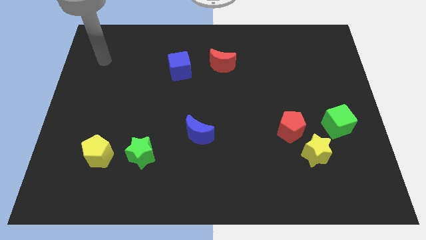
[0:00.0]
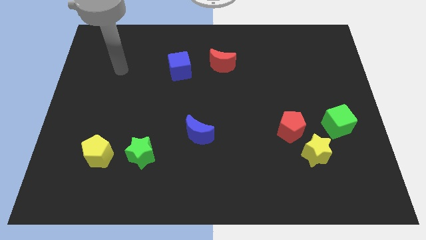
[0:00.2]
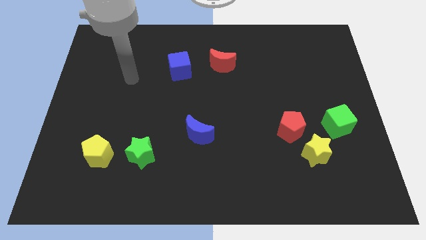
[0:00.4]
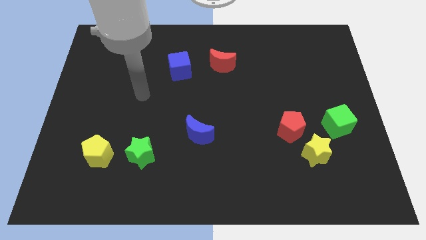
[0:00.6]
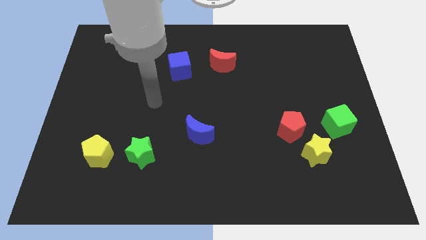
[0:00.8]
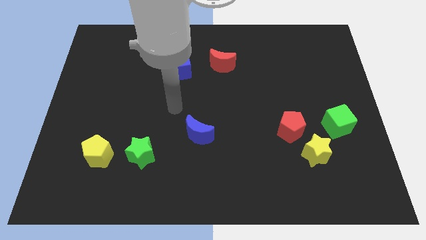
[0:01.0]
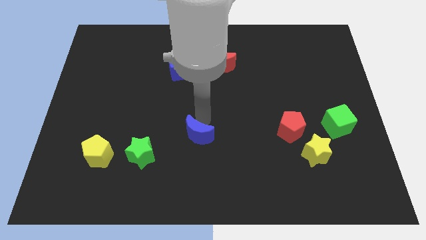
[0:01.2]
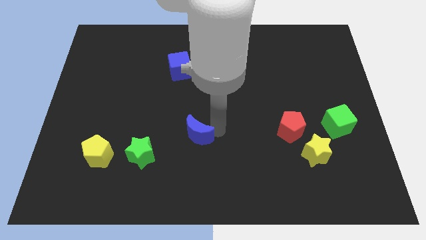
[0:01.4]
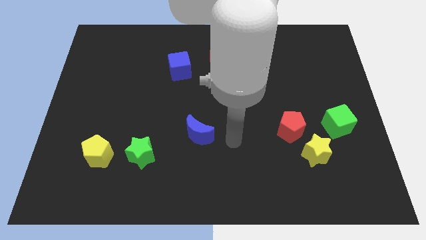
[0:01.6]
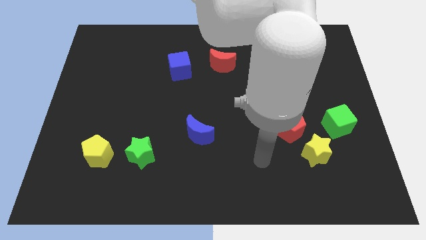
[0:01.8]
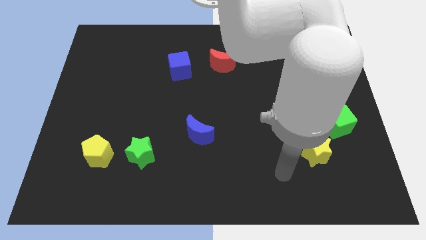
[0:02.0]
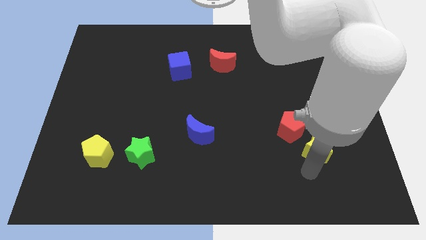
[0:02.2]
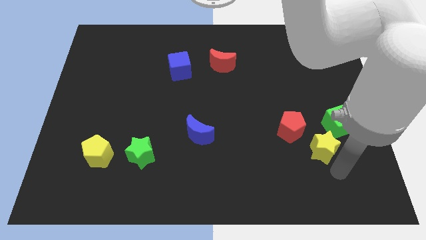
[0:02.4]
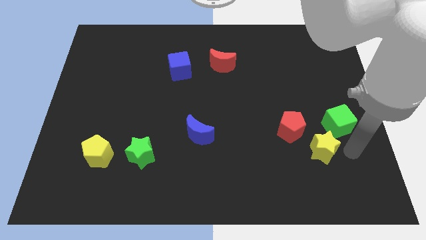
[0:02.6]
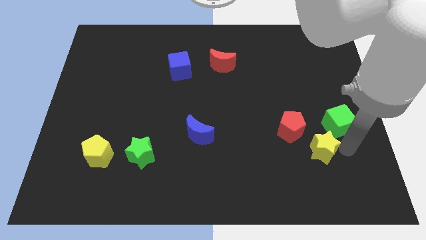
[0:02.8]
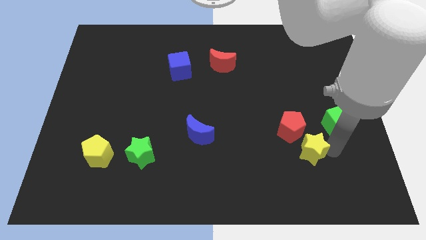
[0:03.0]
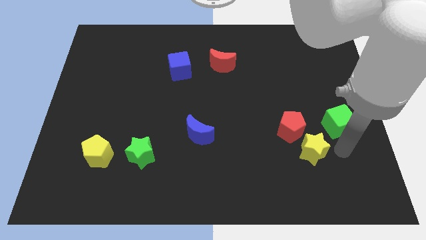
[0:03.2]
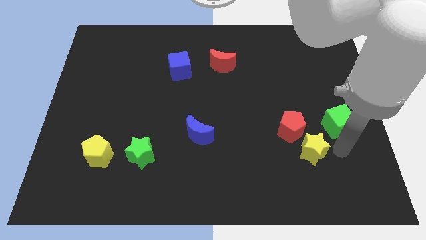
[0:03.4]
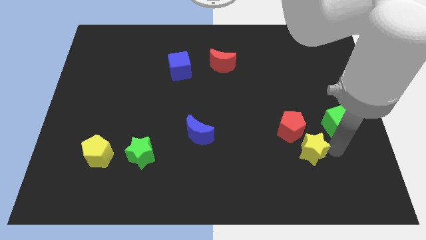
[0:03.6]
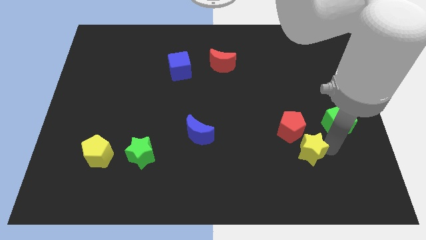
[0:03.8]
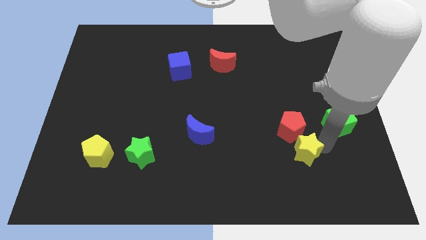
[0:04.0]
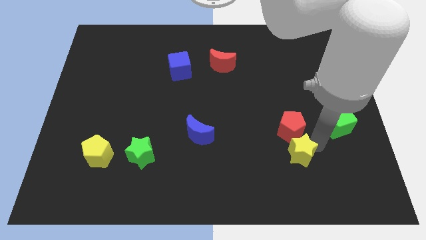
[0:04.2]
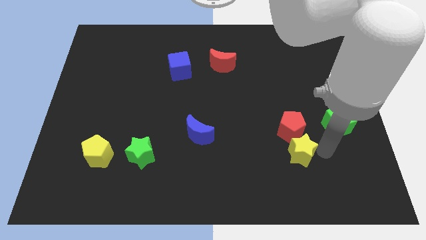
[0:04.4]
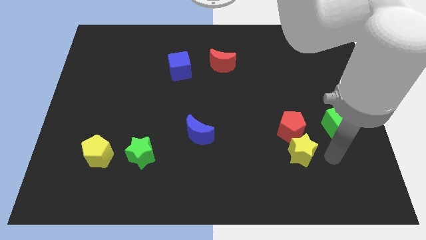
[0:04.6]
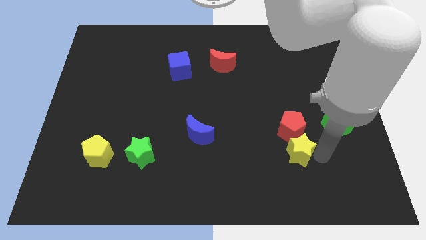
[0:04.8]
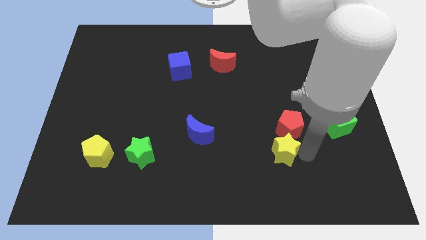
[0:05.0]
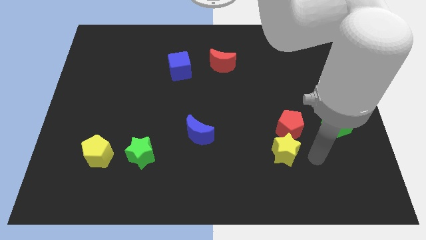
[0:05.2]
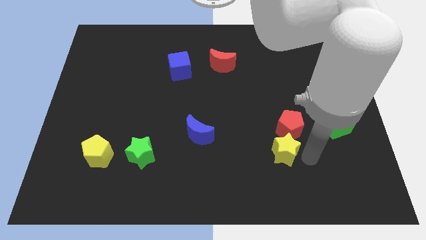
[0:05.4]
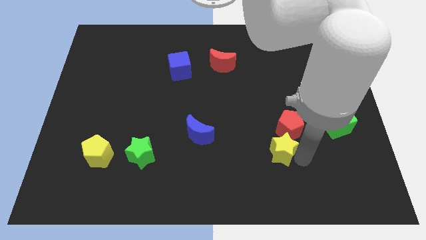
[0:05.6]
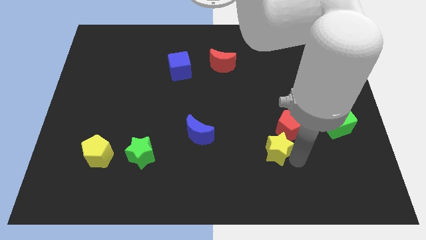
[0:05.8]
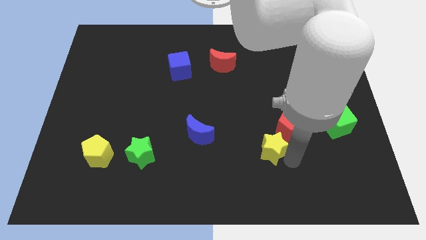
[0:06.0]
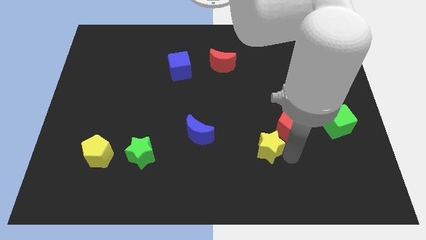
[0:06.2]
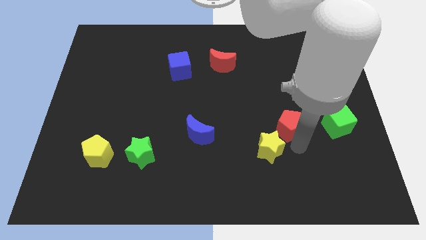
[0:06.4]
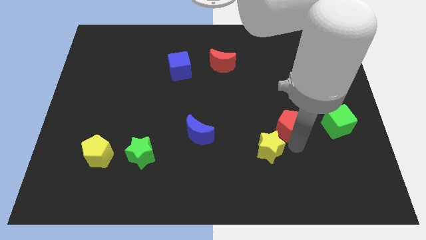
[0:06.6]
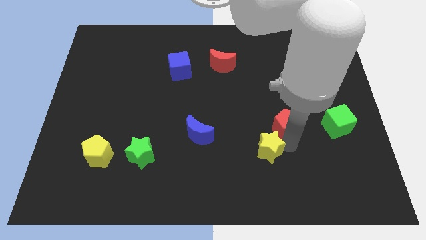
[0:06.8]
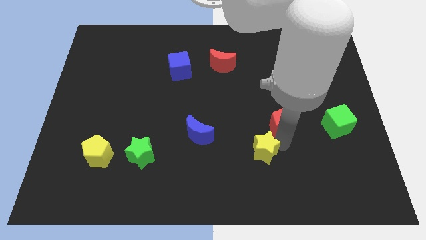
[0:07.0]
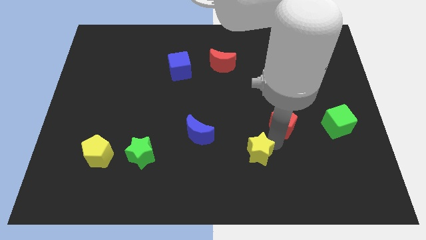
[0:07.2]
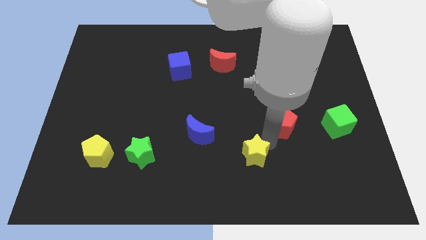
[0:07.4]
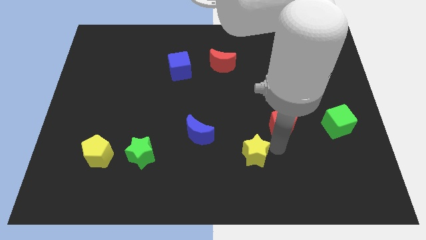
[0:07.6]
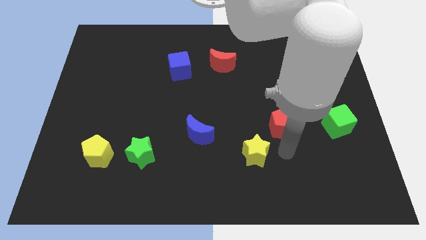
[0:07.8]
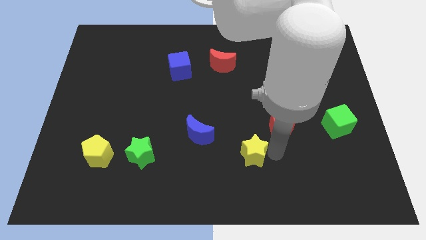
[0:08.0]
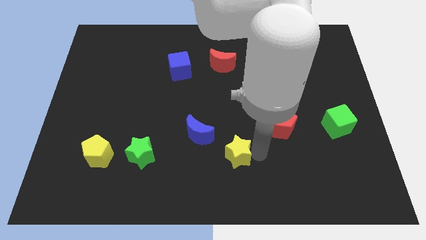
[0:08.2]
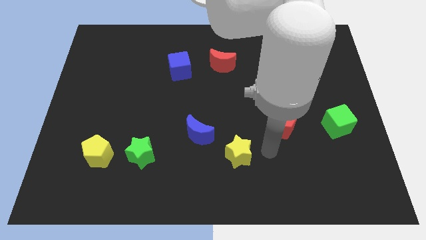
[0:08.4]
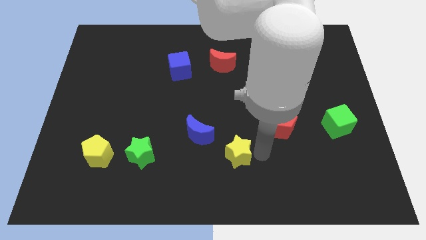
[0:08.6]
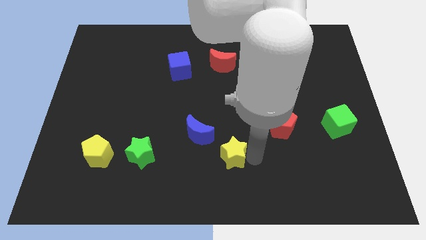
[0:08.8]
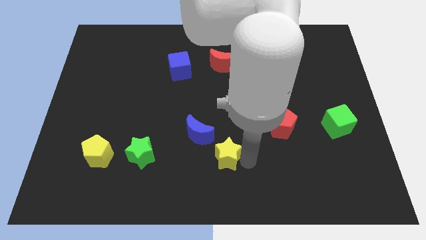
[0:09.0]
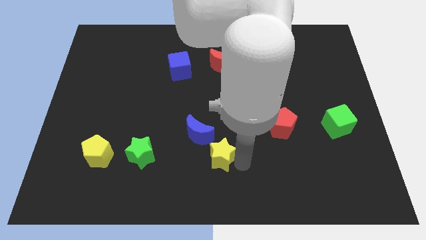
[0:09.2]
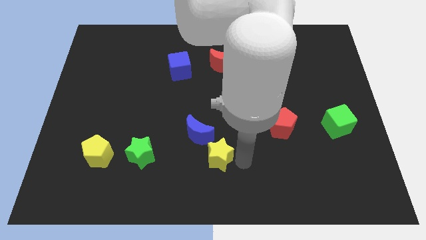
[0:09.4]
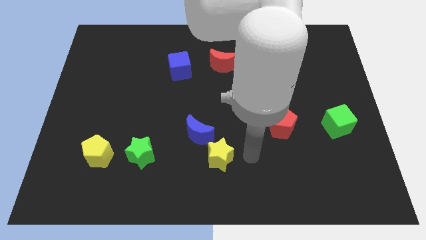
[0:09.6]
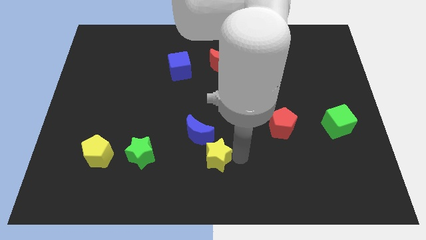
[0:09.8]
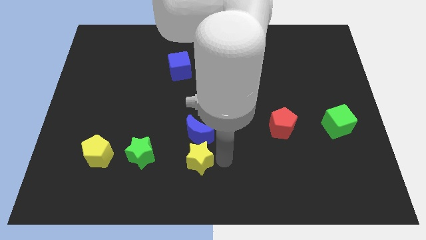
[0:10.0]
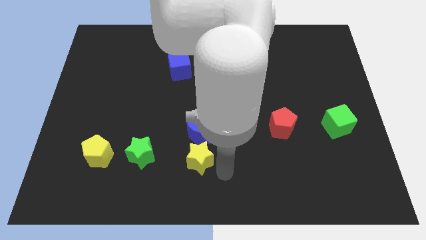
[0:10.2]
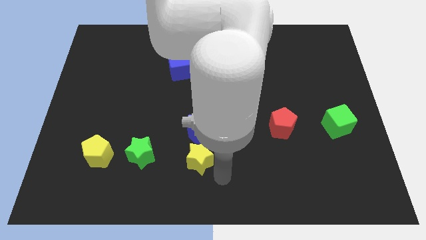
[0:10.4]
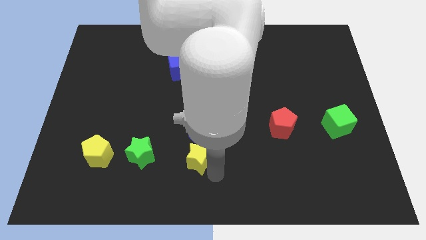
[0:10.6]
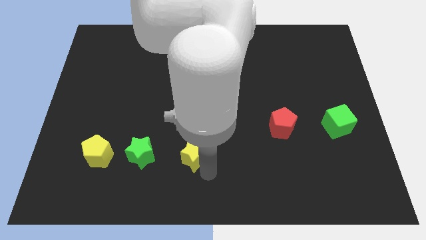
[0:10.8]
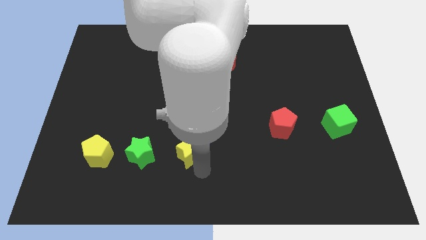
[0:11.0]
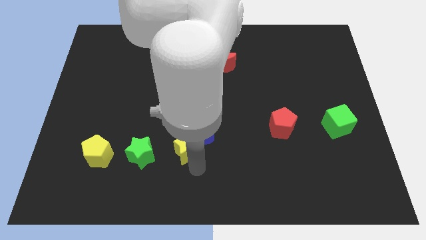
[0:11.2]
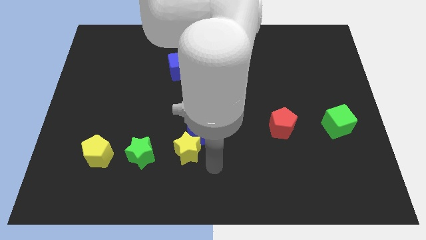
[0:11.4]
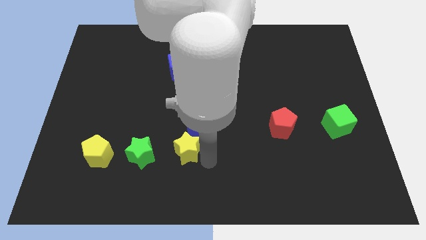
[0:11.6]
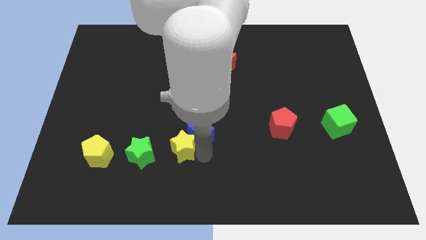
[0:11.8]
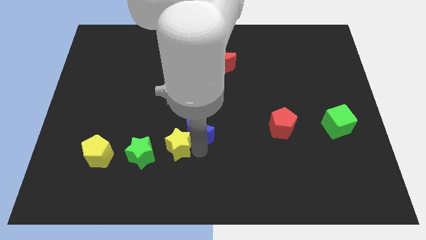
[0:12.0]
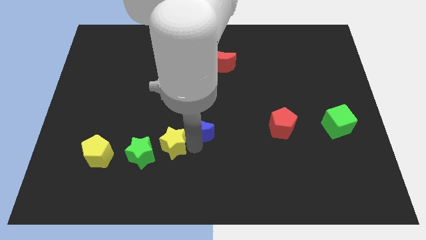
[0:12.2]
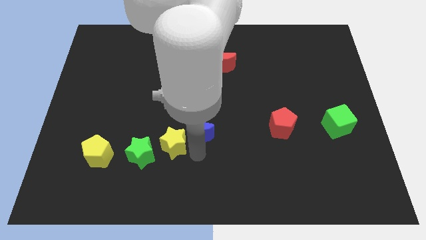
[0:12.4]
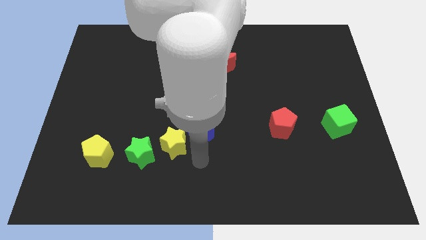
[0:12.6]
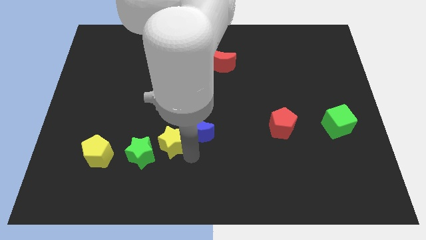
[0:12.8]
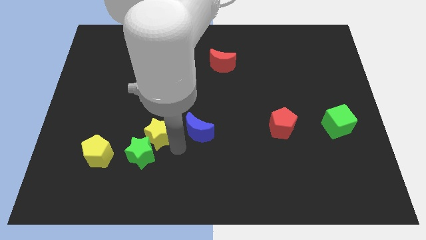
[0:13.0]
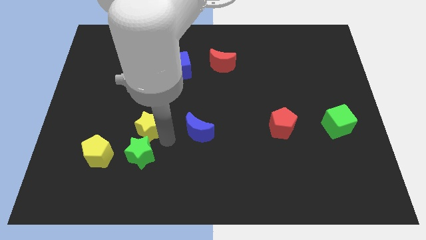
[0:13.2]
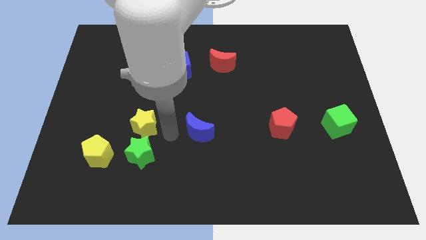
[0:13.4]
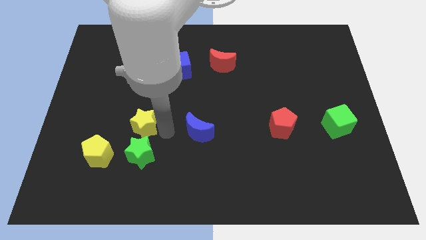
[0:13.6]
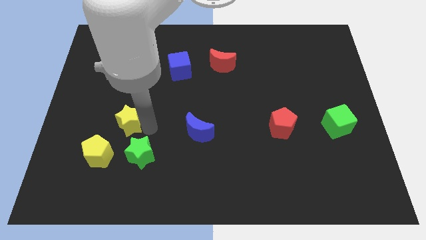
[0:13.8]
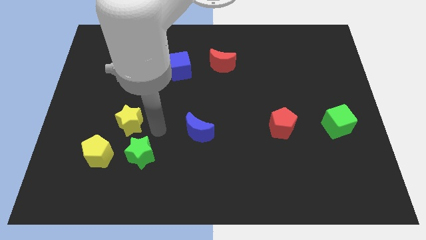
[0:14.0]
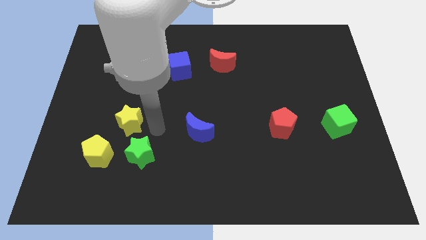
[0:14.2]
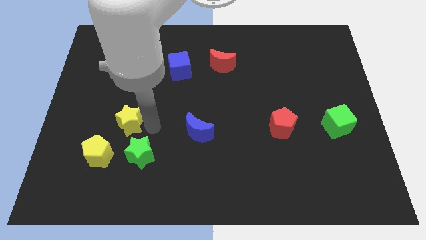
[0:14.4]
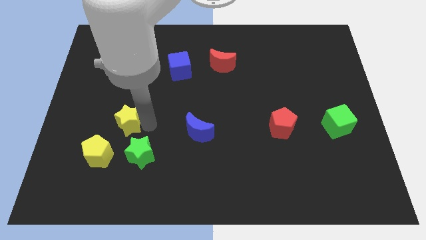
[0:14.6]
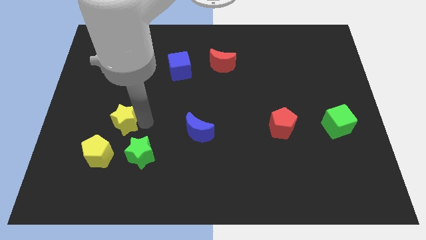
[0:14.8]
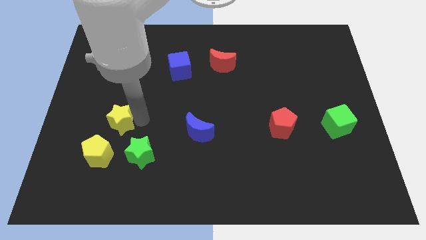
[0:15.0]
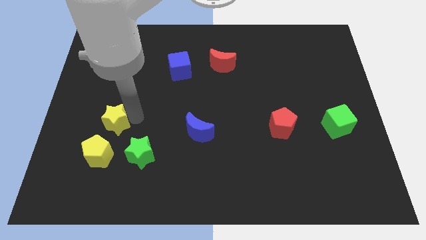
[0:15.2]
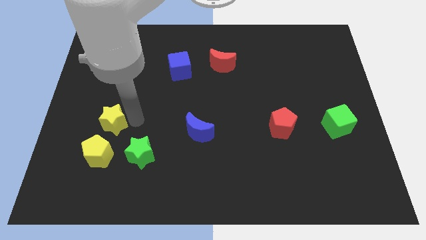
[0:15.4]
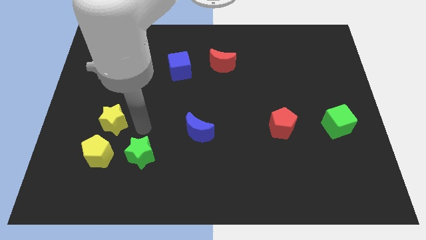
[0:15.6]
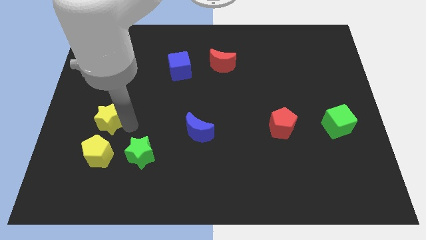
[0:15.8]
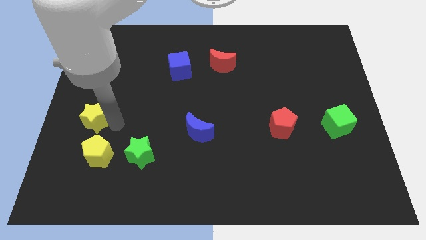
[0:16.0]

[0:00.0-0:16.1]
move the yellow star to the left side of the board
